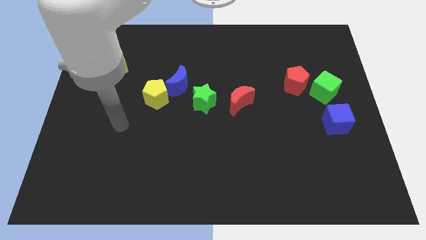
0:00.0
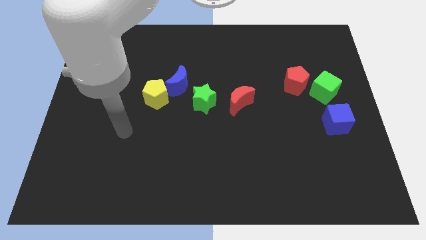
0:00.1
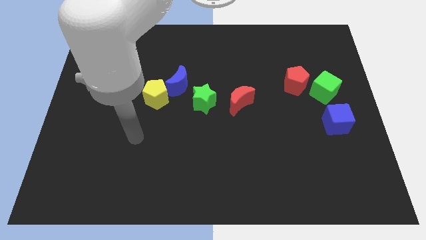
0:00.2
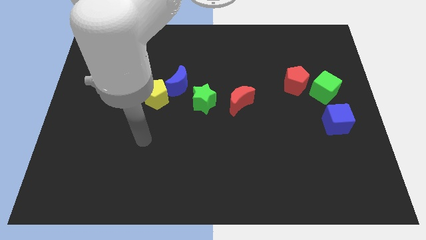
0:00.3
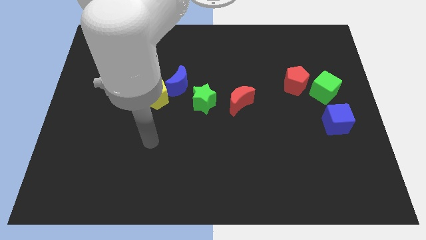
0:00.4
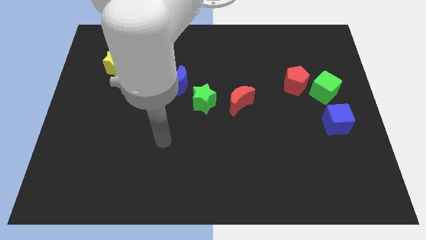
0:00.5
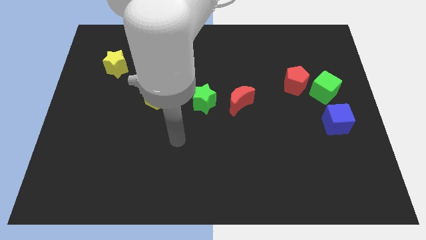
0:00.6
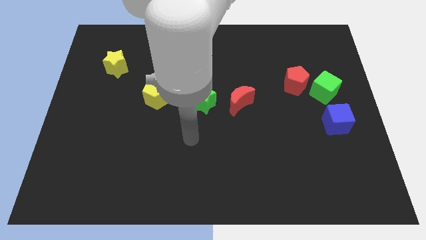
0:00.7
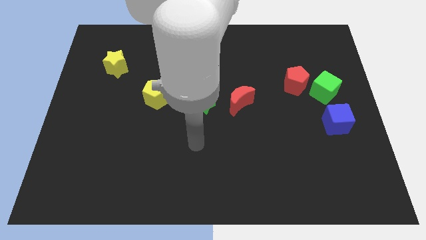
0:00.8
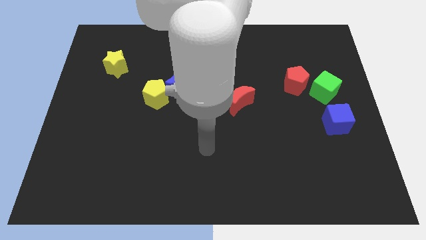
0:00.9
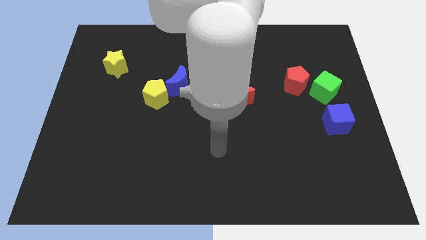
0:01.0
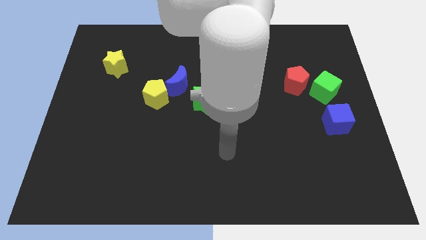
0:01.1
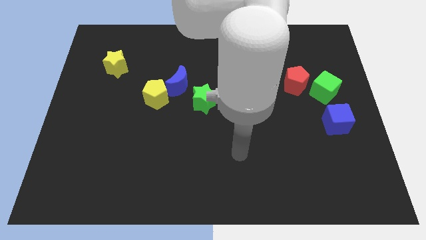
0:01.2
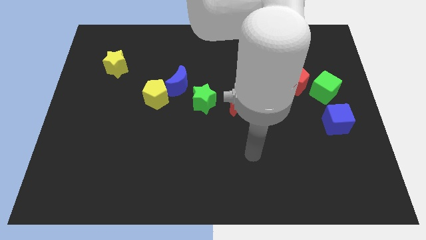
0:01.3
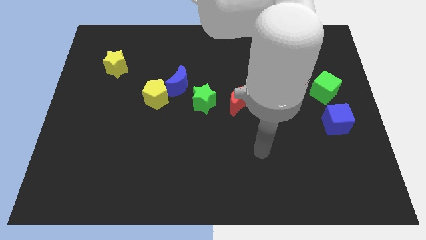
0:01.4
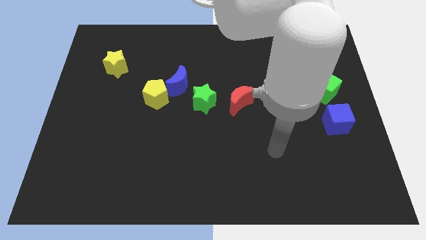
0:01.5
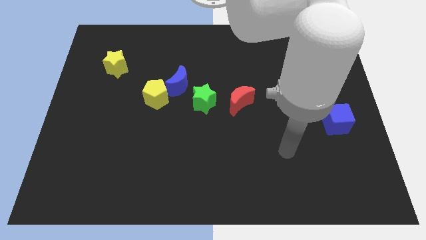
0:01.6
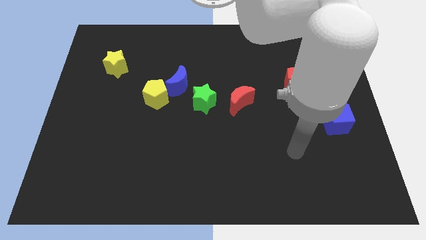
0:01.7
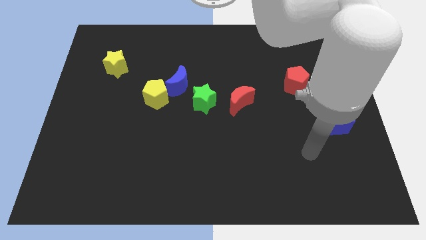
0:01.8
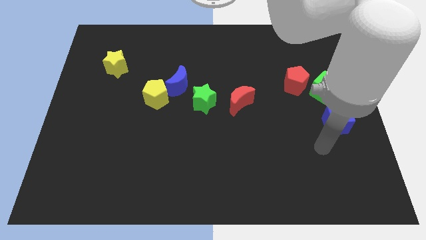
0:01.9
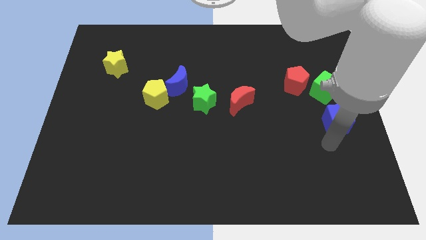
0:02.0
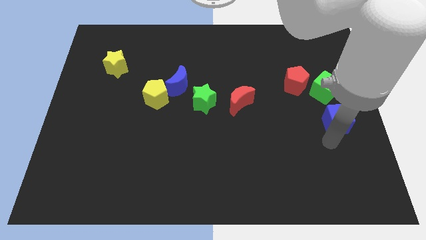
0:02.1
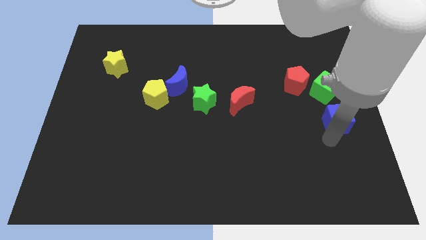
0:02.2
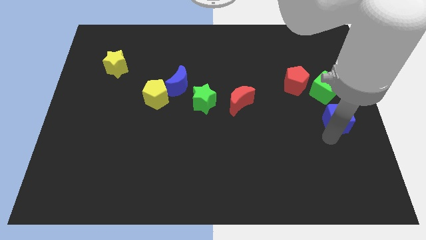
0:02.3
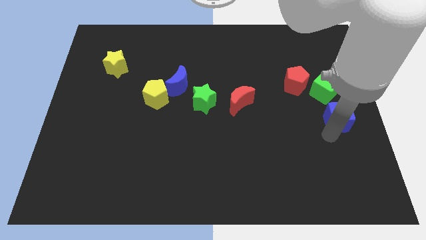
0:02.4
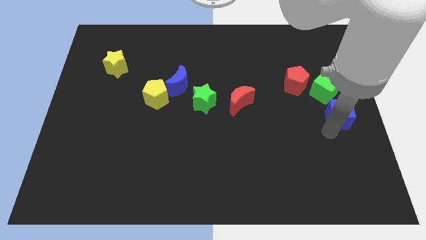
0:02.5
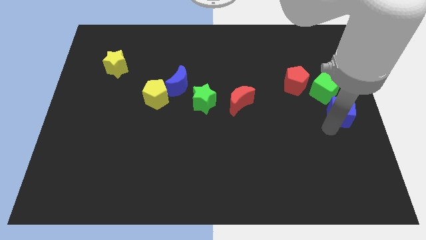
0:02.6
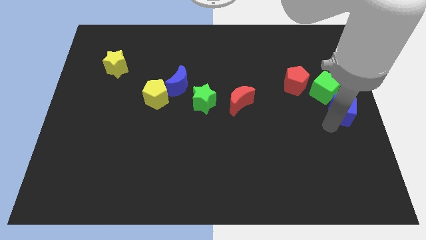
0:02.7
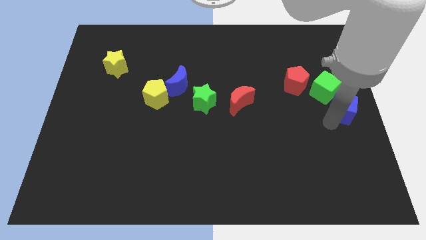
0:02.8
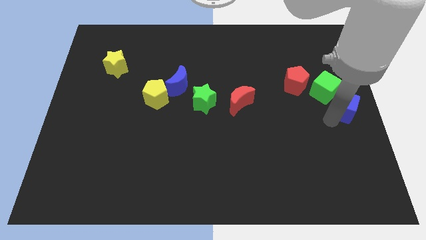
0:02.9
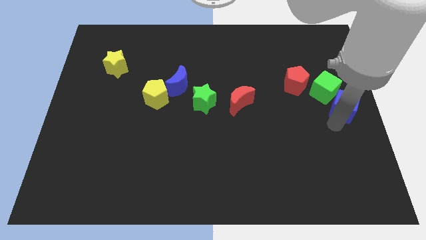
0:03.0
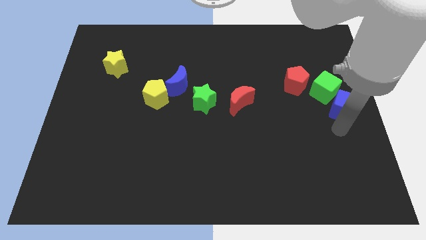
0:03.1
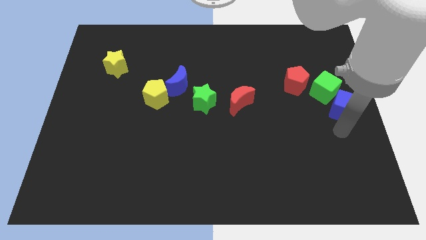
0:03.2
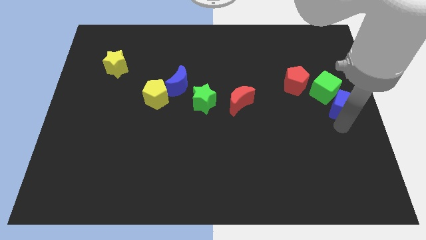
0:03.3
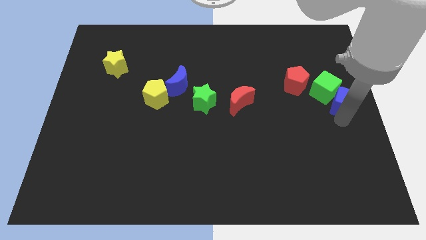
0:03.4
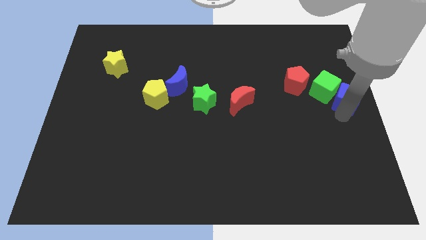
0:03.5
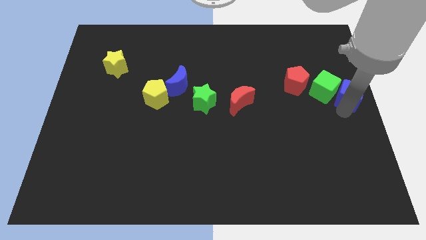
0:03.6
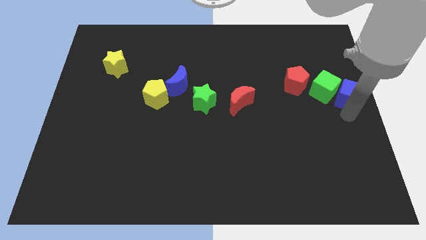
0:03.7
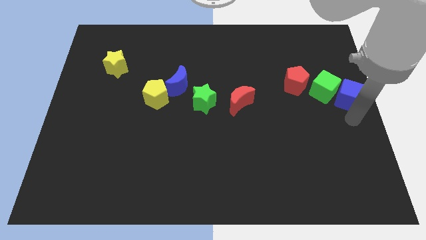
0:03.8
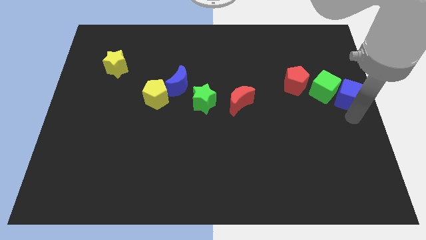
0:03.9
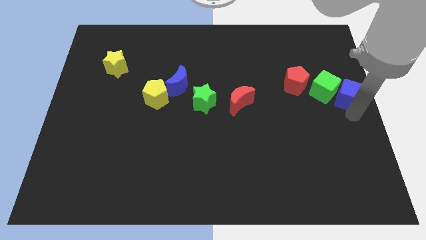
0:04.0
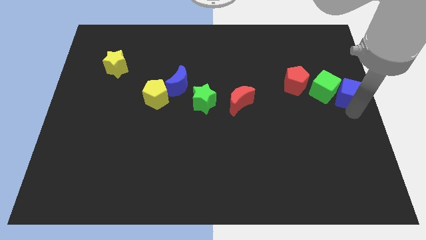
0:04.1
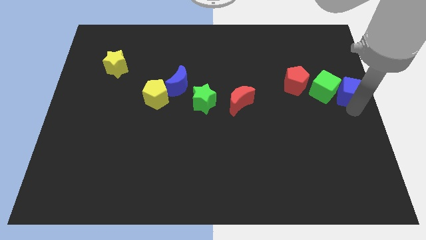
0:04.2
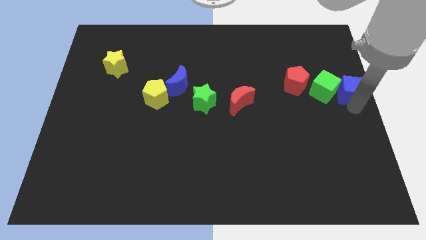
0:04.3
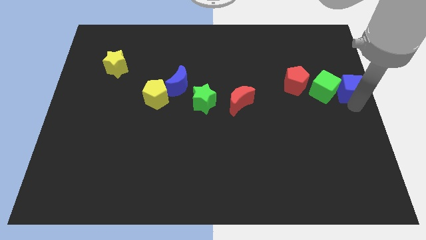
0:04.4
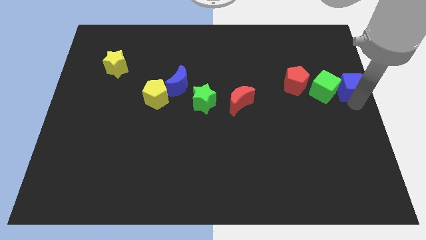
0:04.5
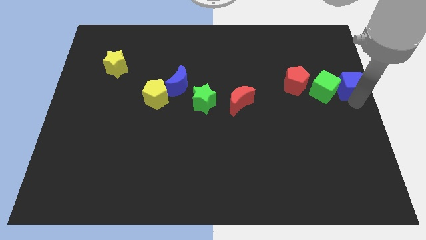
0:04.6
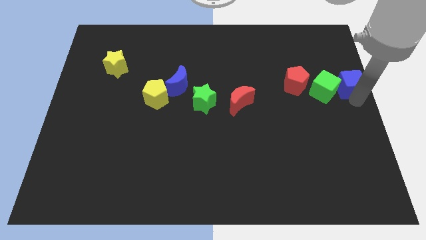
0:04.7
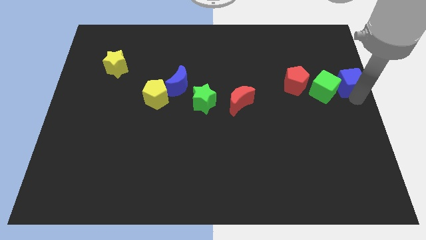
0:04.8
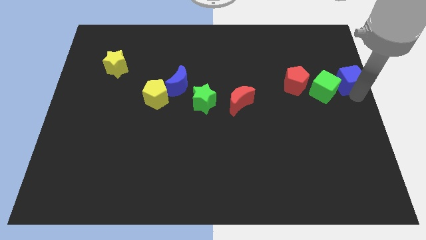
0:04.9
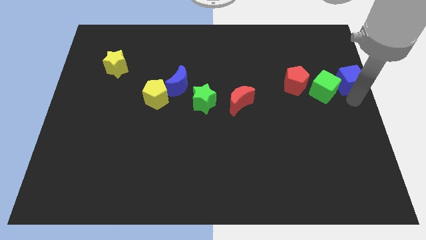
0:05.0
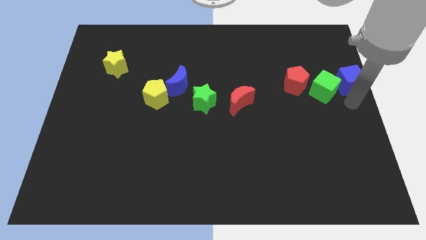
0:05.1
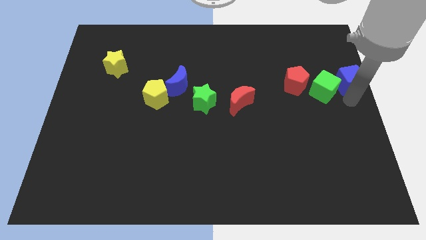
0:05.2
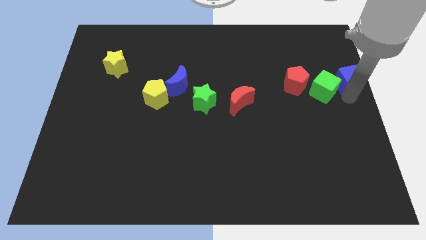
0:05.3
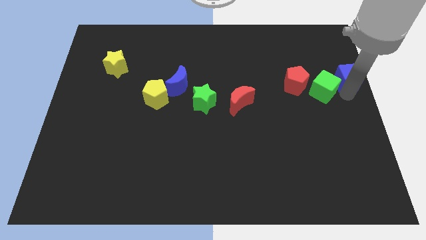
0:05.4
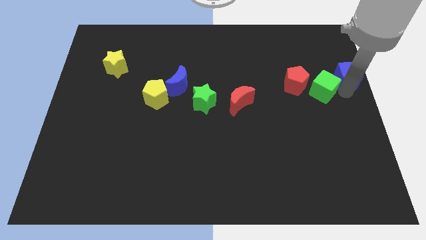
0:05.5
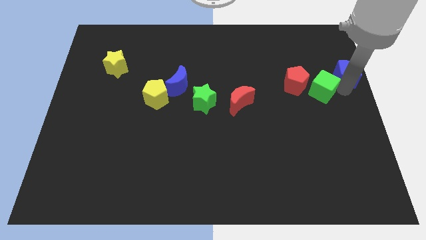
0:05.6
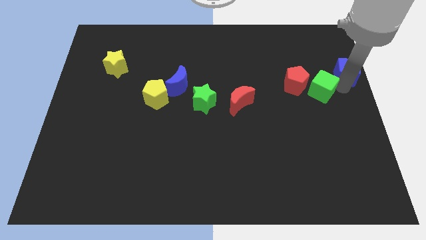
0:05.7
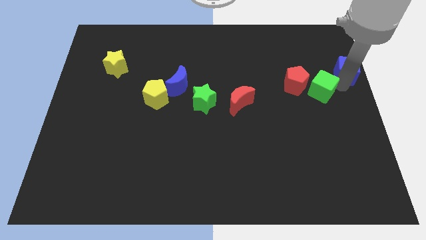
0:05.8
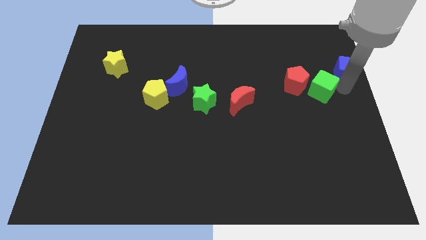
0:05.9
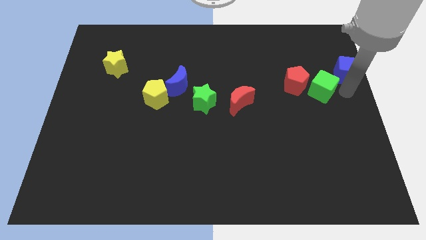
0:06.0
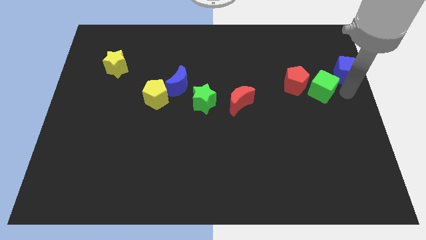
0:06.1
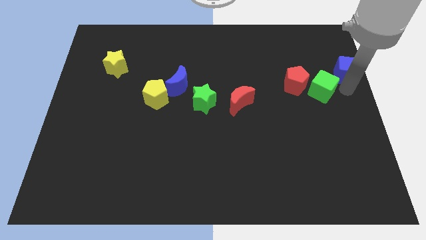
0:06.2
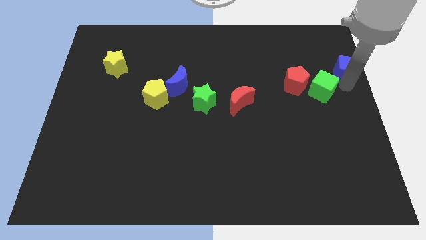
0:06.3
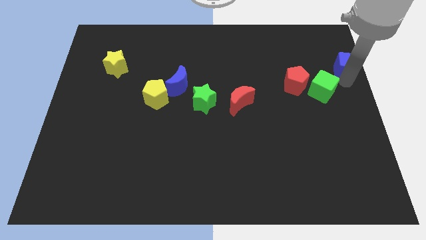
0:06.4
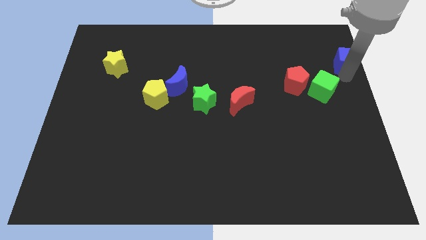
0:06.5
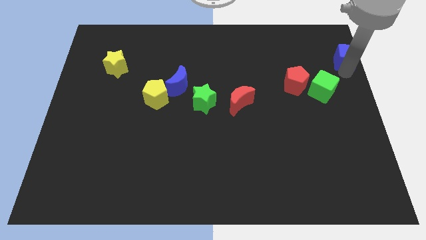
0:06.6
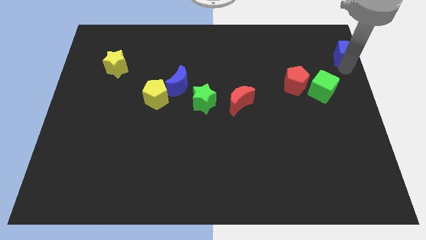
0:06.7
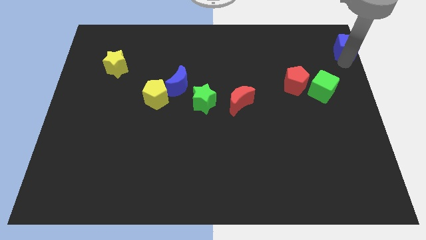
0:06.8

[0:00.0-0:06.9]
move the blue cube to the top right corner
